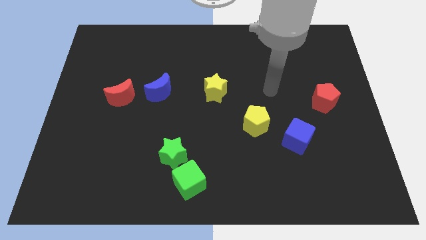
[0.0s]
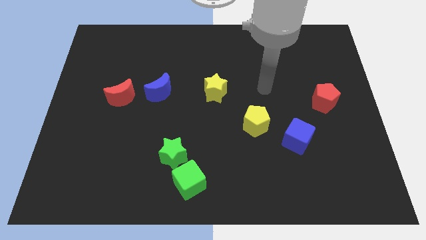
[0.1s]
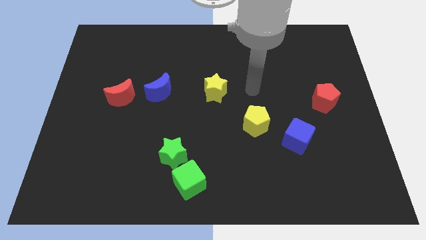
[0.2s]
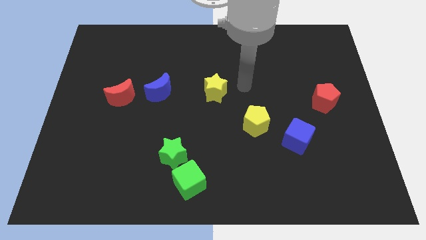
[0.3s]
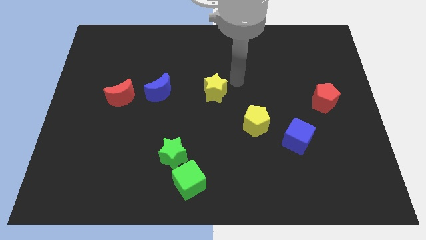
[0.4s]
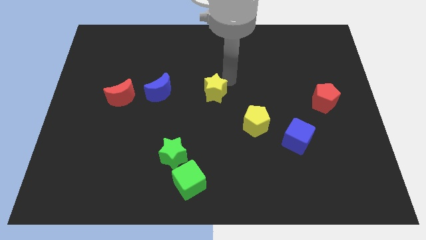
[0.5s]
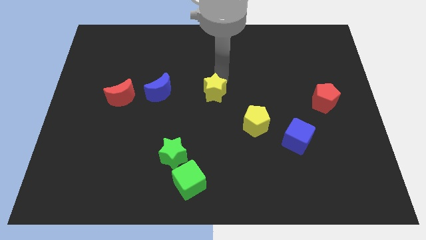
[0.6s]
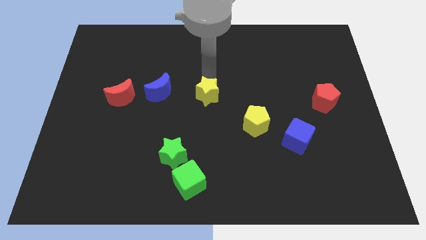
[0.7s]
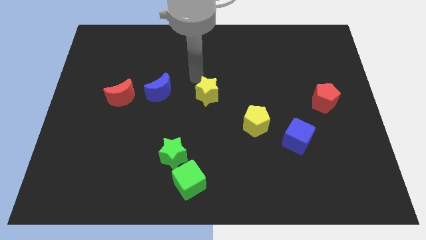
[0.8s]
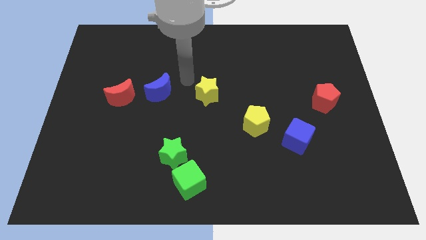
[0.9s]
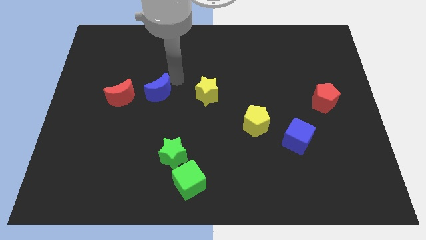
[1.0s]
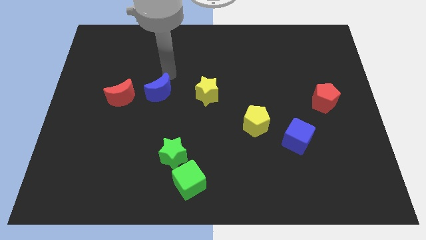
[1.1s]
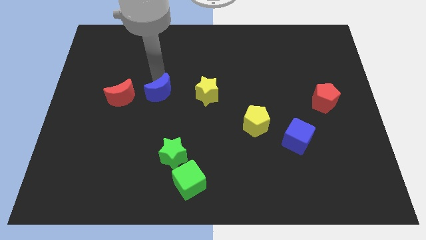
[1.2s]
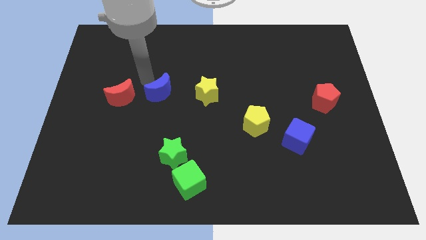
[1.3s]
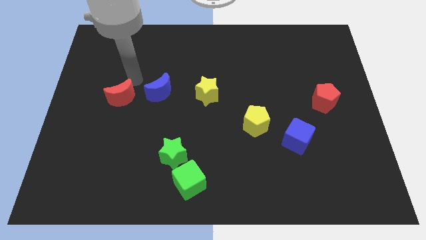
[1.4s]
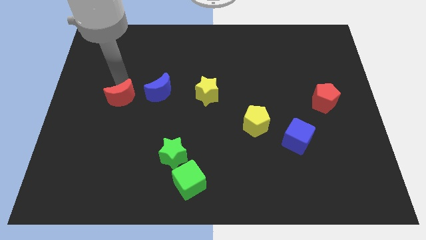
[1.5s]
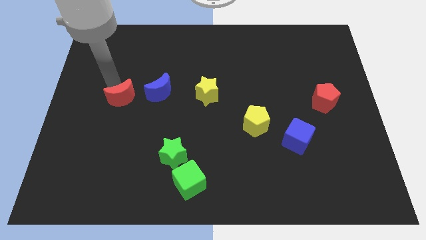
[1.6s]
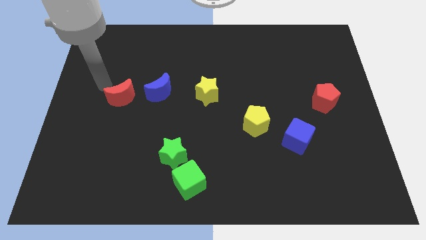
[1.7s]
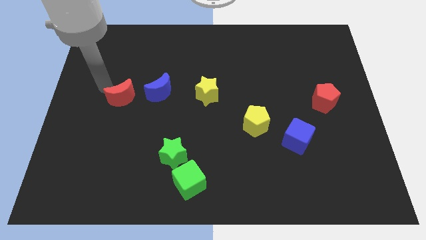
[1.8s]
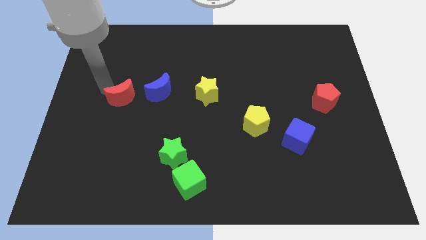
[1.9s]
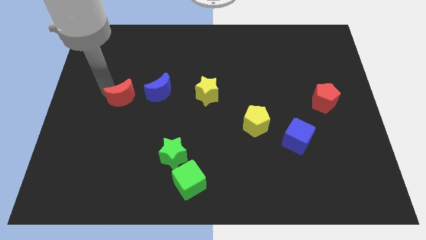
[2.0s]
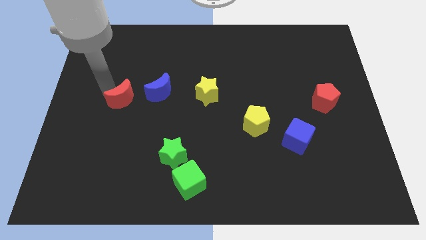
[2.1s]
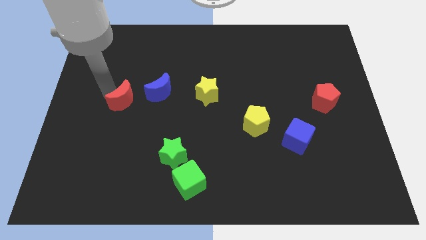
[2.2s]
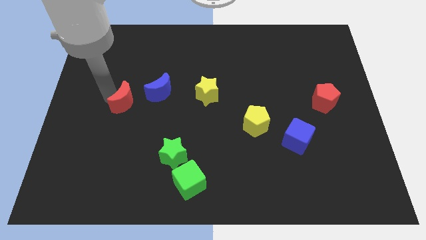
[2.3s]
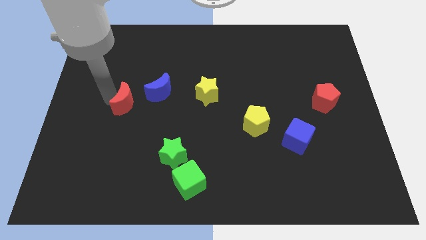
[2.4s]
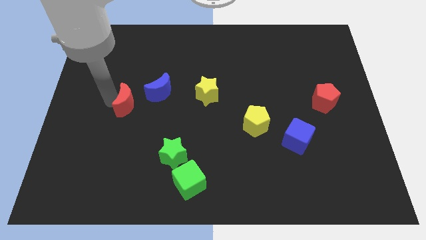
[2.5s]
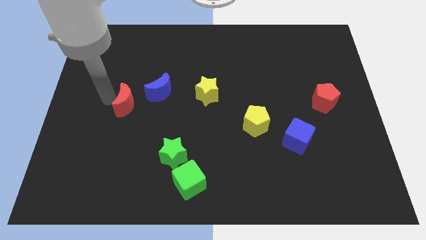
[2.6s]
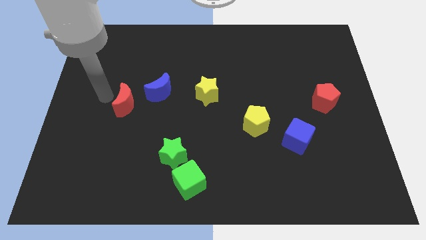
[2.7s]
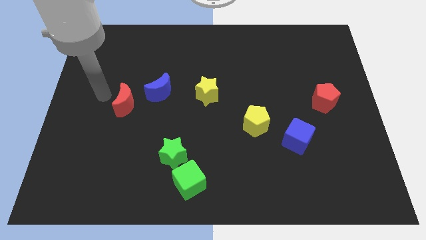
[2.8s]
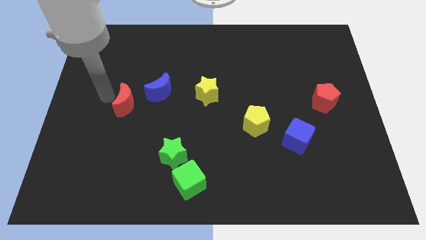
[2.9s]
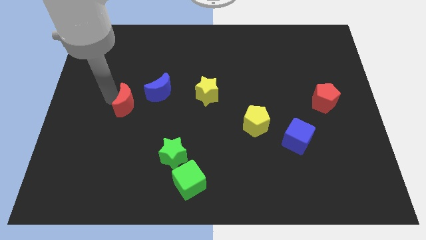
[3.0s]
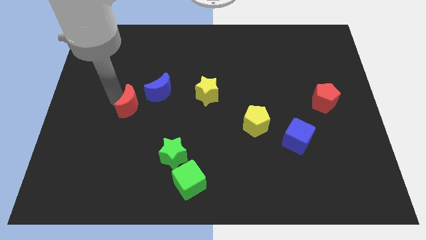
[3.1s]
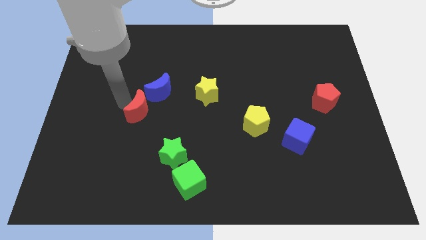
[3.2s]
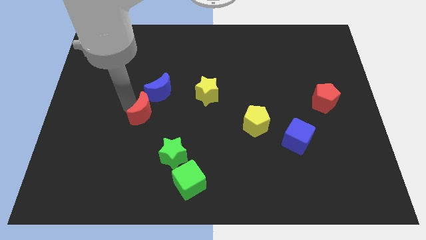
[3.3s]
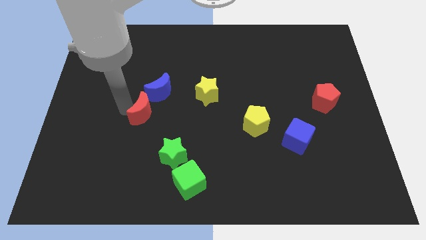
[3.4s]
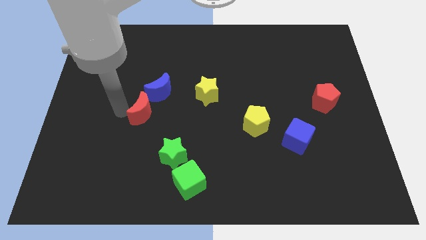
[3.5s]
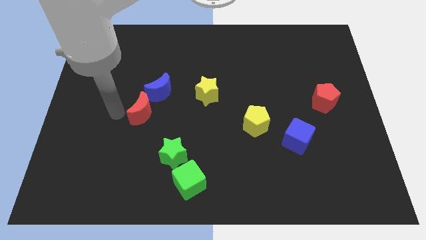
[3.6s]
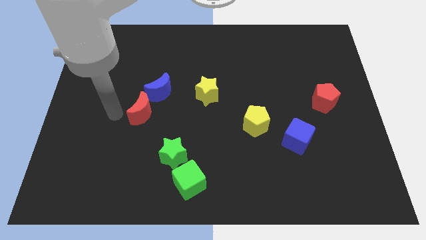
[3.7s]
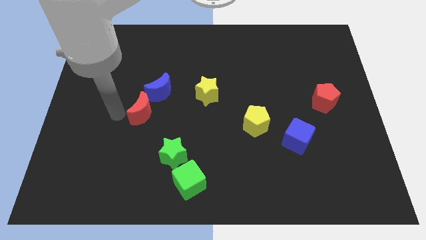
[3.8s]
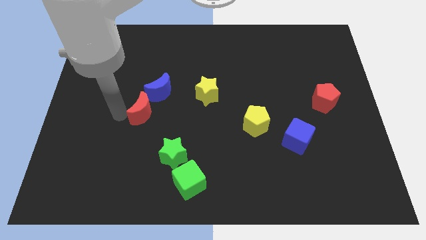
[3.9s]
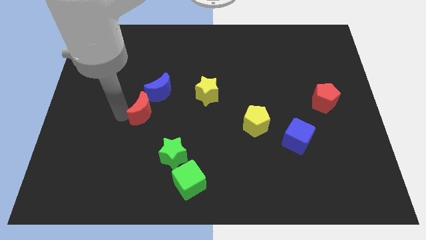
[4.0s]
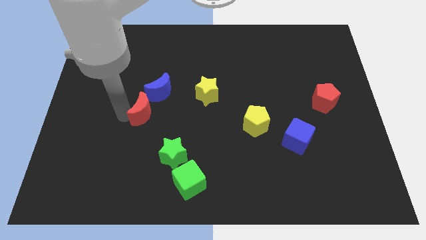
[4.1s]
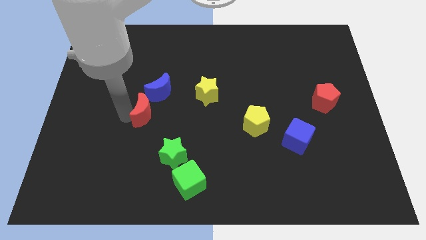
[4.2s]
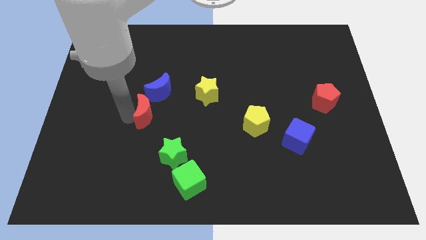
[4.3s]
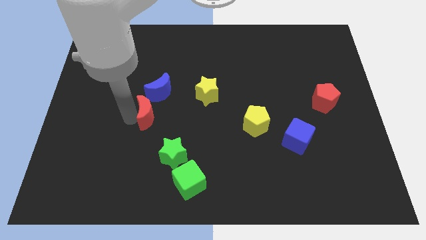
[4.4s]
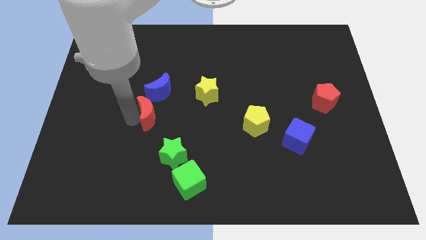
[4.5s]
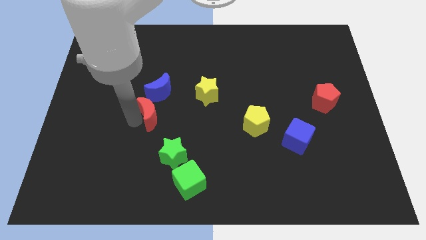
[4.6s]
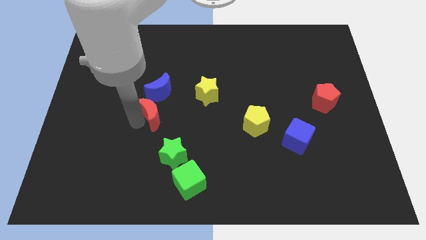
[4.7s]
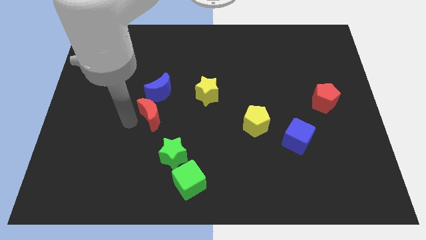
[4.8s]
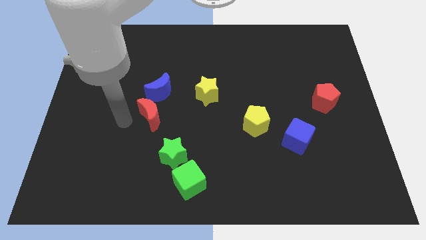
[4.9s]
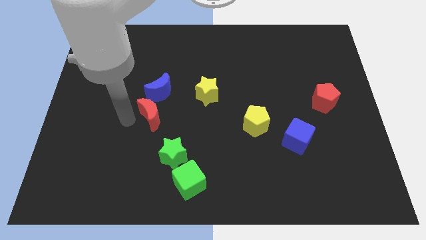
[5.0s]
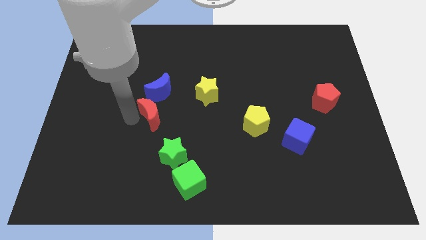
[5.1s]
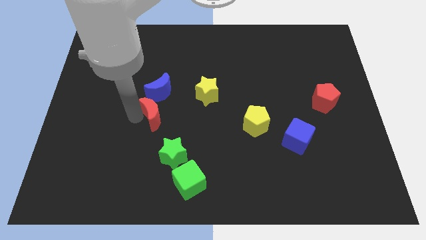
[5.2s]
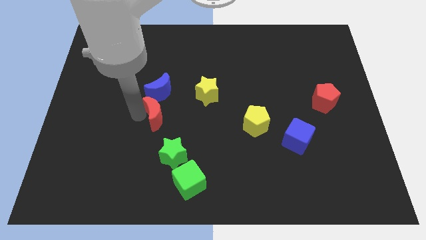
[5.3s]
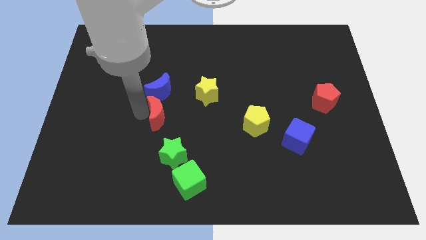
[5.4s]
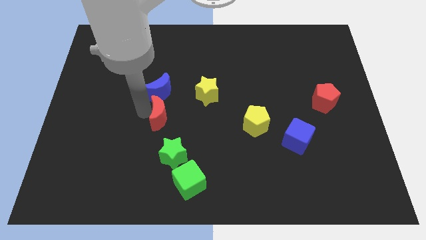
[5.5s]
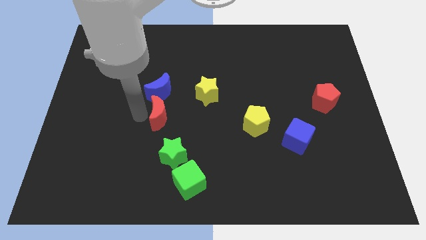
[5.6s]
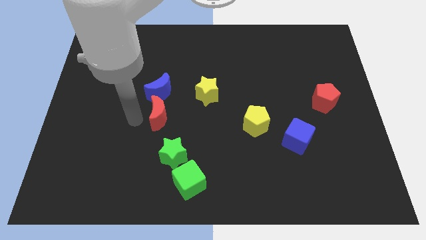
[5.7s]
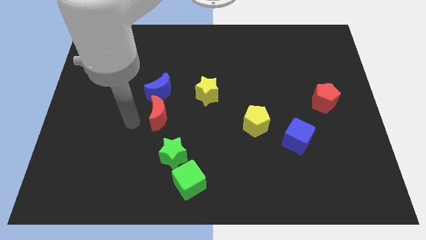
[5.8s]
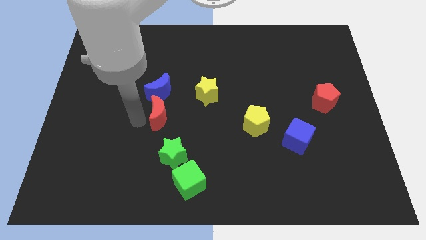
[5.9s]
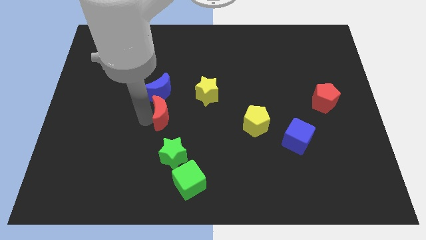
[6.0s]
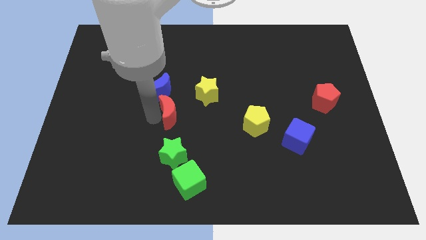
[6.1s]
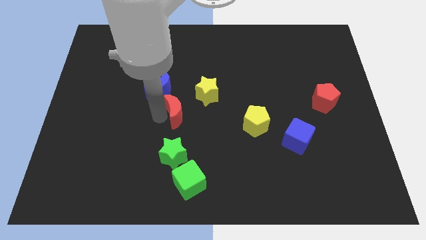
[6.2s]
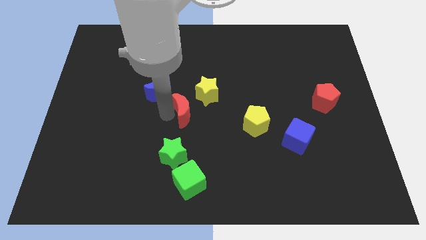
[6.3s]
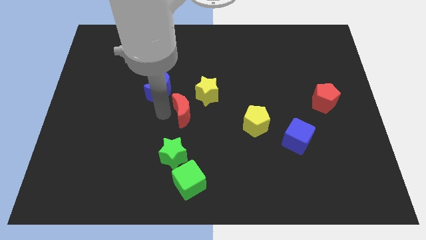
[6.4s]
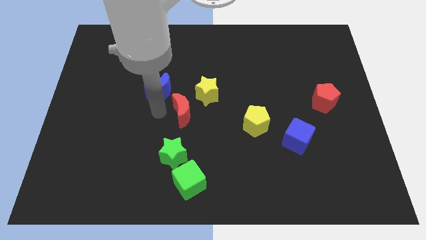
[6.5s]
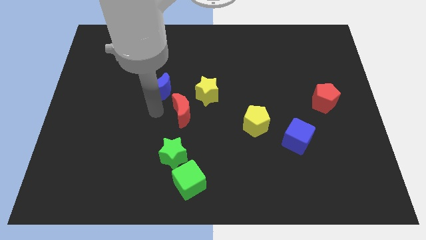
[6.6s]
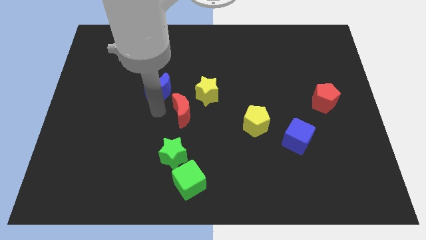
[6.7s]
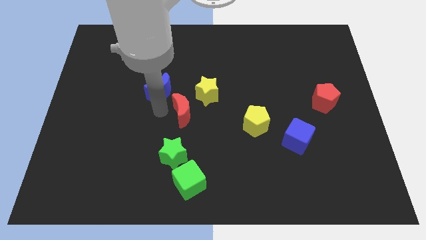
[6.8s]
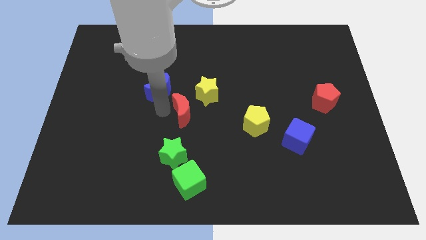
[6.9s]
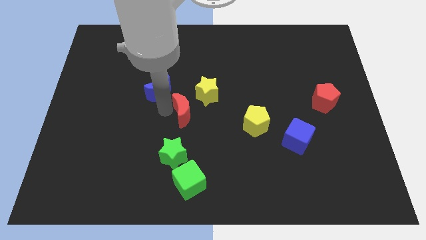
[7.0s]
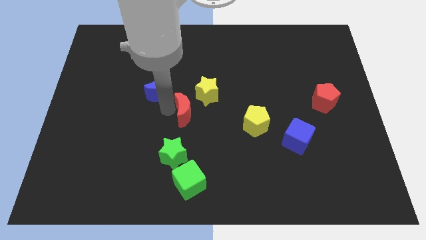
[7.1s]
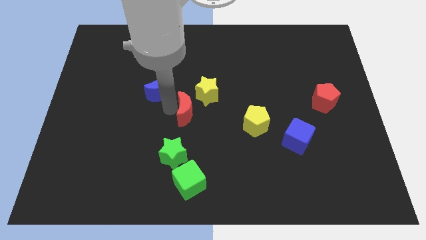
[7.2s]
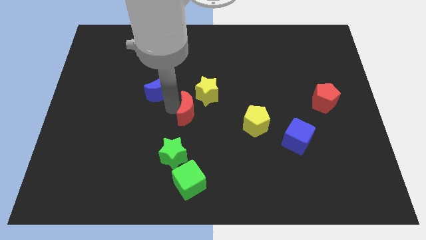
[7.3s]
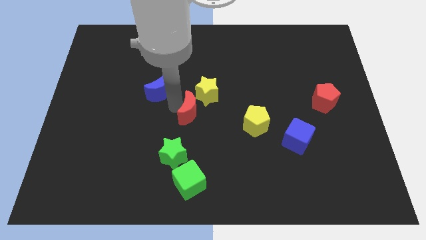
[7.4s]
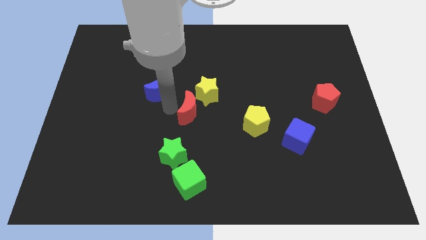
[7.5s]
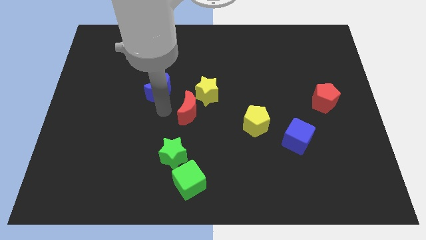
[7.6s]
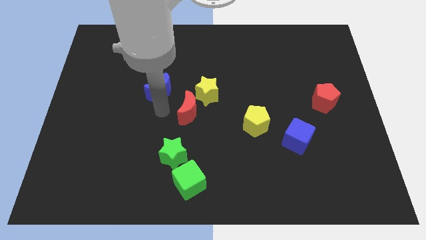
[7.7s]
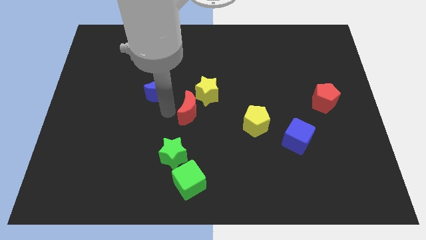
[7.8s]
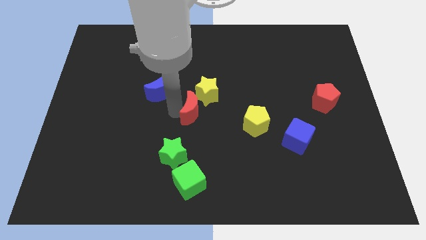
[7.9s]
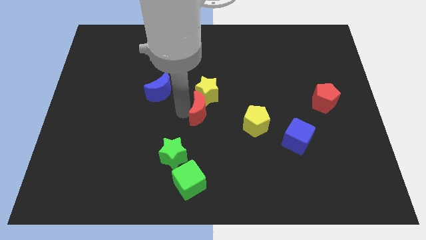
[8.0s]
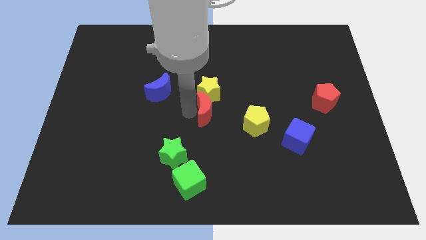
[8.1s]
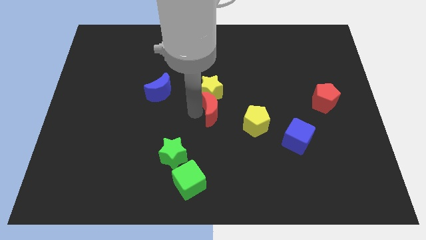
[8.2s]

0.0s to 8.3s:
push the red moon right
